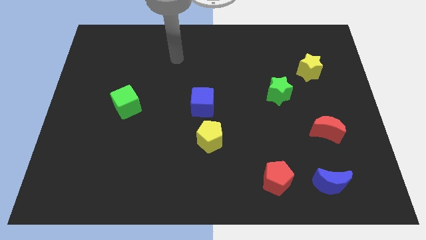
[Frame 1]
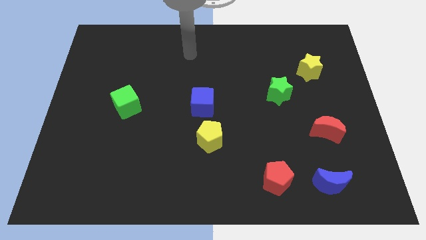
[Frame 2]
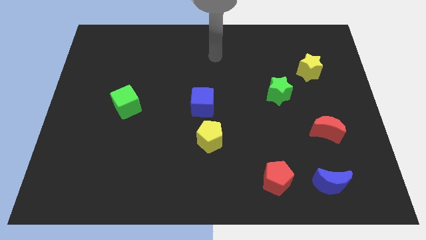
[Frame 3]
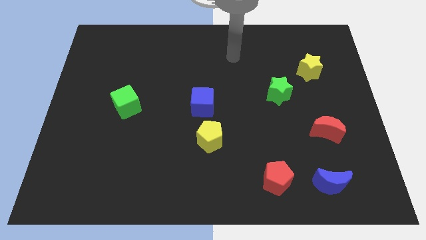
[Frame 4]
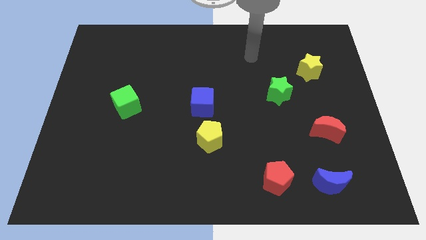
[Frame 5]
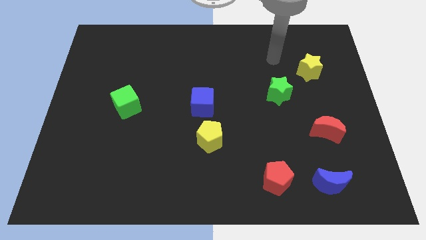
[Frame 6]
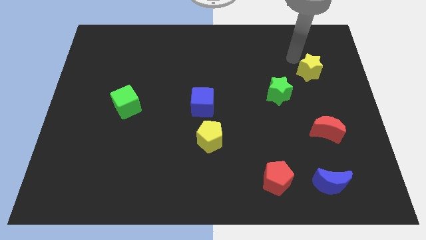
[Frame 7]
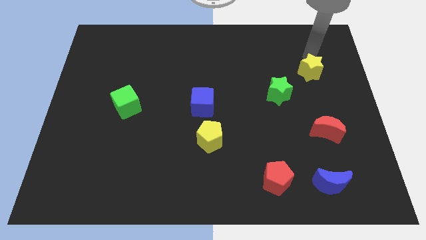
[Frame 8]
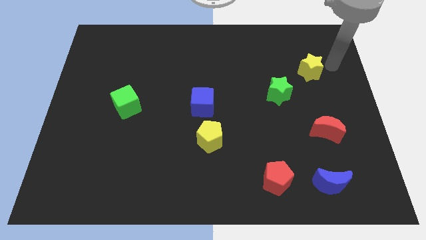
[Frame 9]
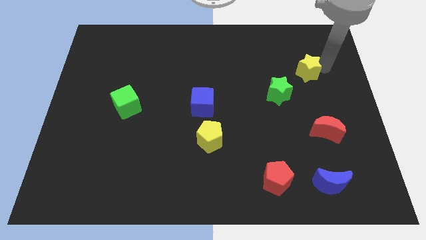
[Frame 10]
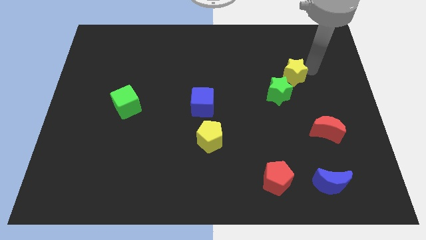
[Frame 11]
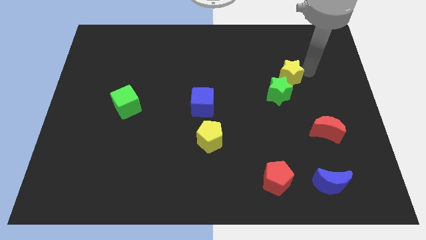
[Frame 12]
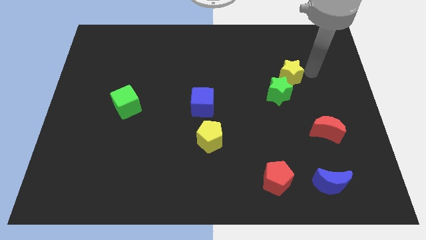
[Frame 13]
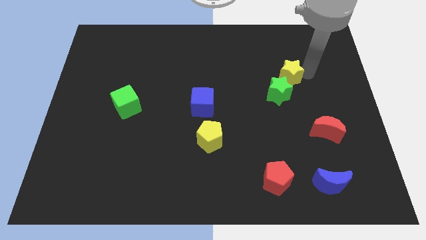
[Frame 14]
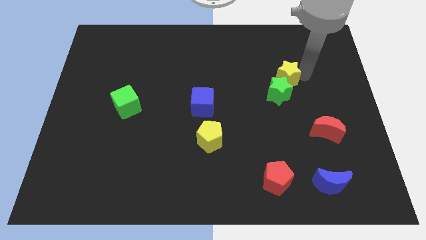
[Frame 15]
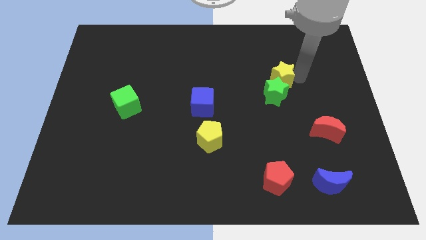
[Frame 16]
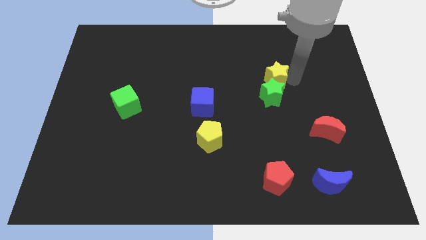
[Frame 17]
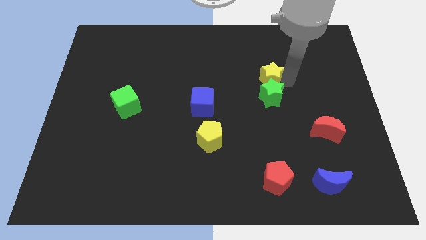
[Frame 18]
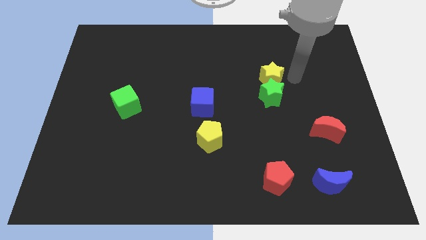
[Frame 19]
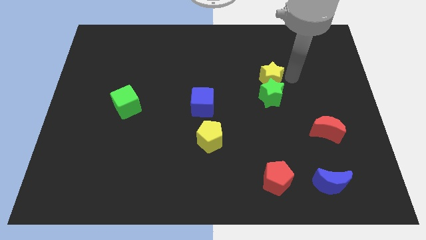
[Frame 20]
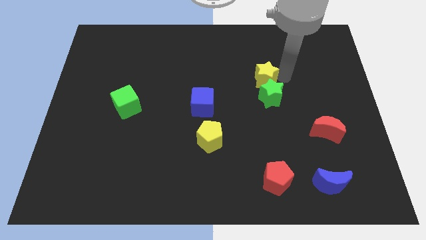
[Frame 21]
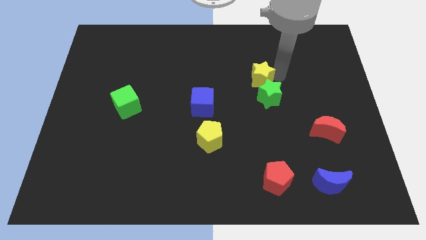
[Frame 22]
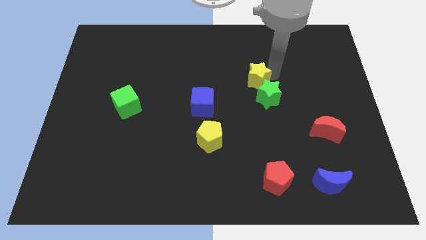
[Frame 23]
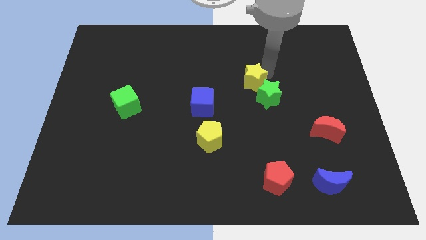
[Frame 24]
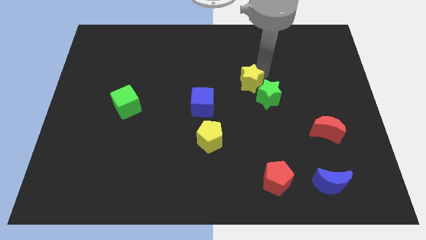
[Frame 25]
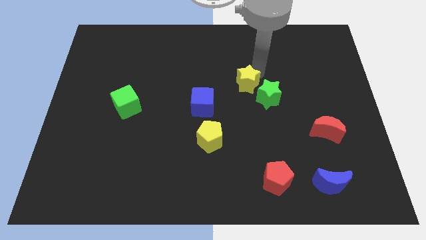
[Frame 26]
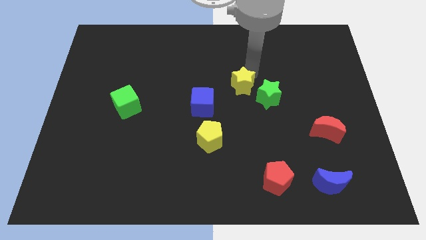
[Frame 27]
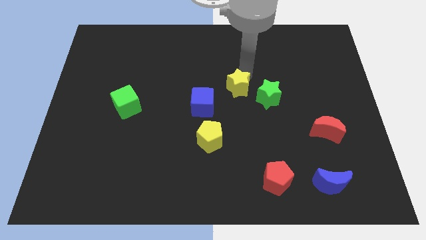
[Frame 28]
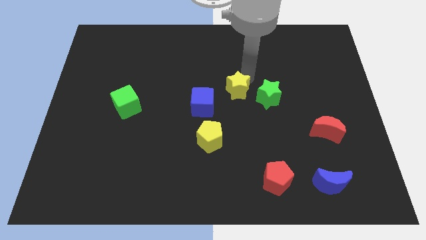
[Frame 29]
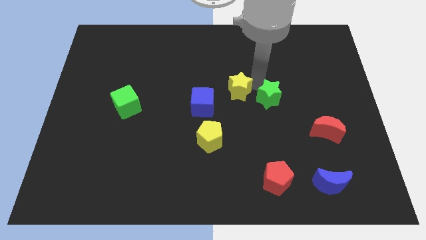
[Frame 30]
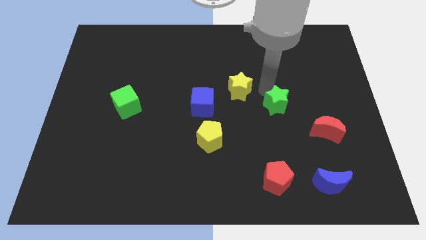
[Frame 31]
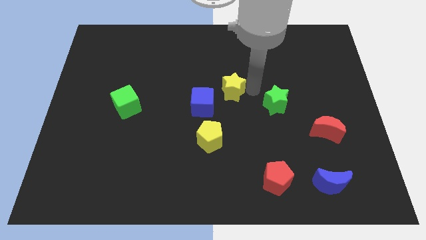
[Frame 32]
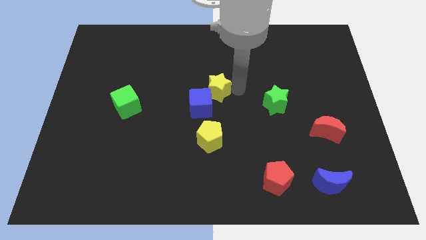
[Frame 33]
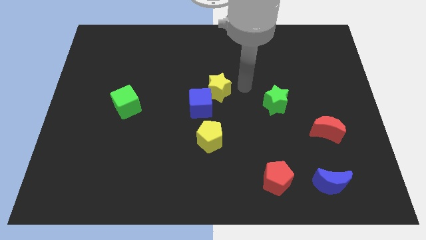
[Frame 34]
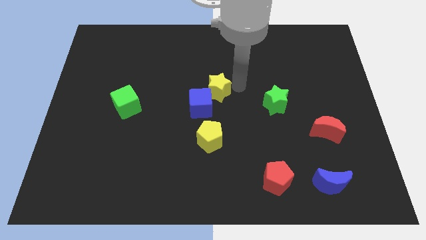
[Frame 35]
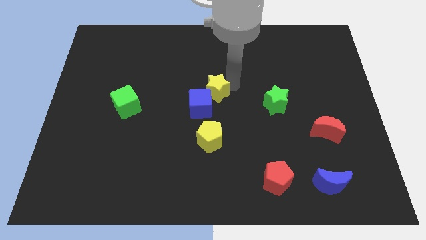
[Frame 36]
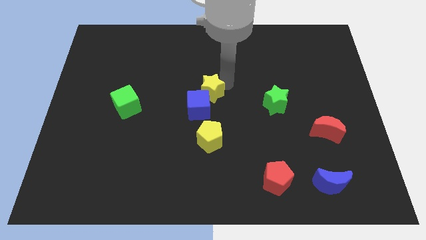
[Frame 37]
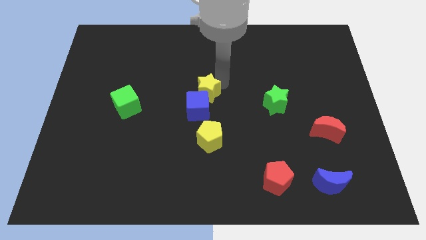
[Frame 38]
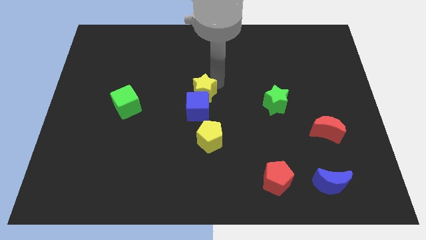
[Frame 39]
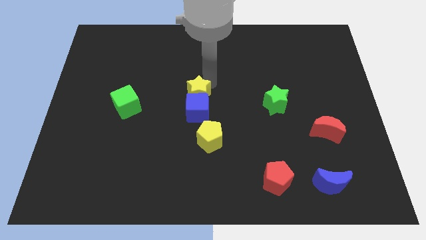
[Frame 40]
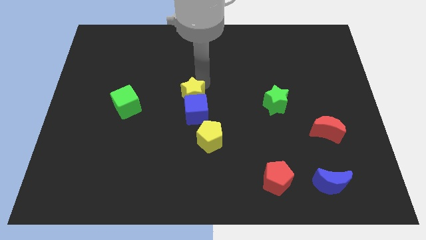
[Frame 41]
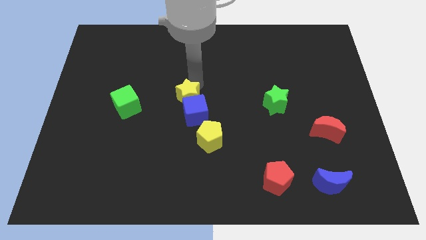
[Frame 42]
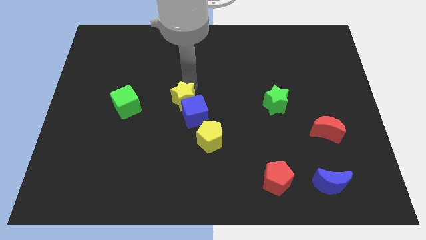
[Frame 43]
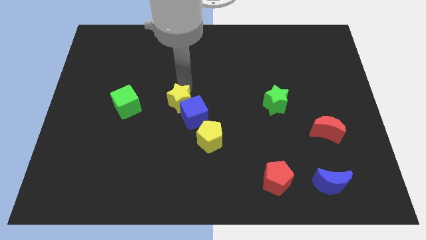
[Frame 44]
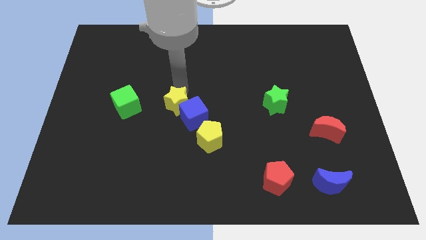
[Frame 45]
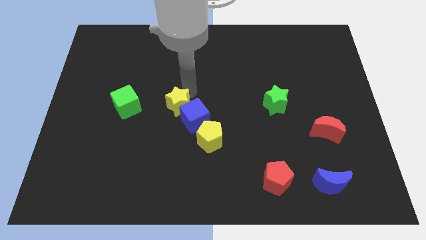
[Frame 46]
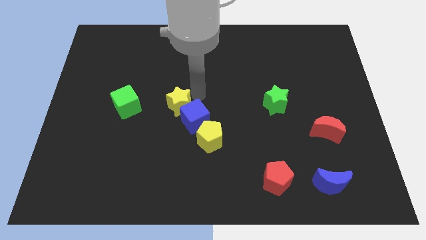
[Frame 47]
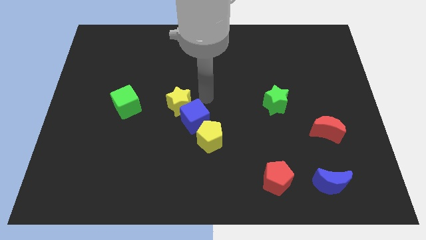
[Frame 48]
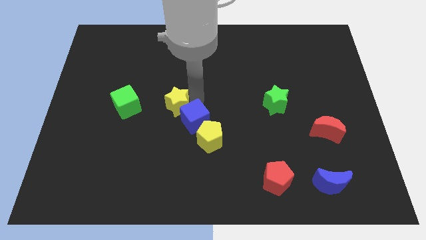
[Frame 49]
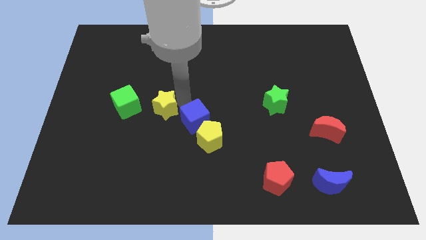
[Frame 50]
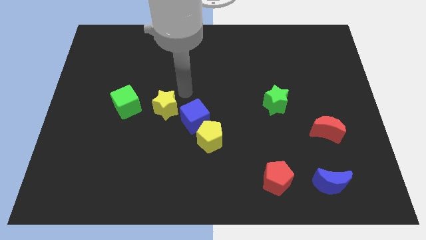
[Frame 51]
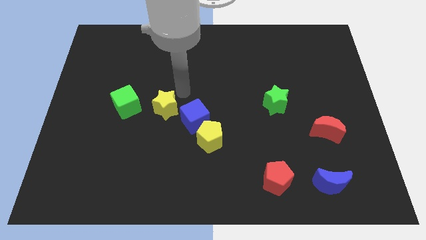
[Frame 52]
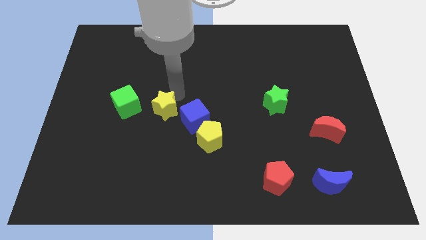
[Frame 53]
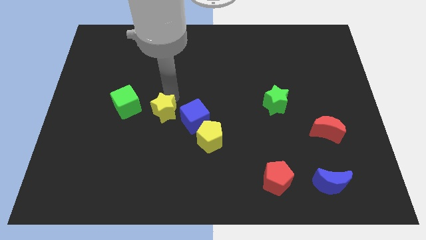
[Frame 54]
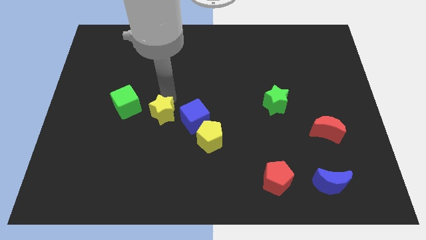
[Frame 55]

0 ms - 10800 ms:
put the yellow star to the bottom right side of the green cube

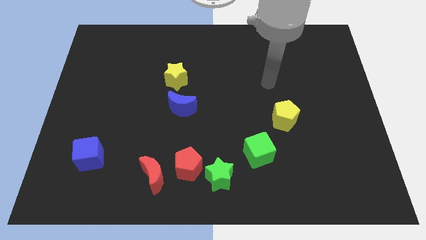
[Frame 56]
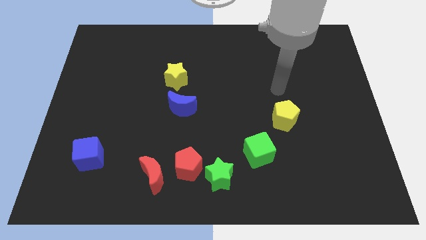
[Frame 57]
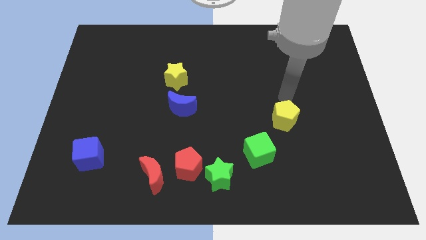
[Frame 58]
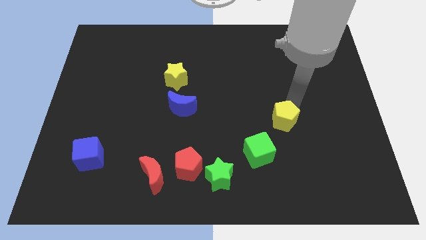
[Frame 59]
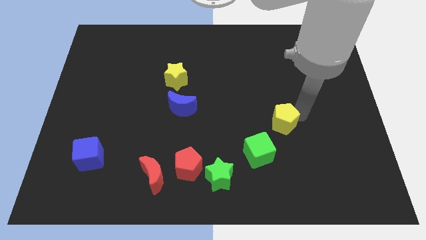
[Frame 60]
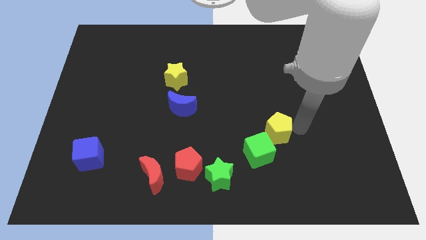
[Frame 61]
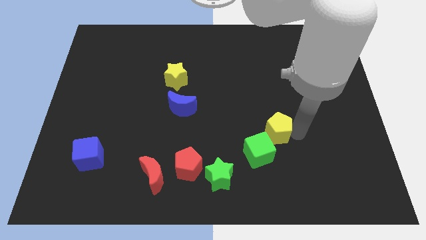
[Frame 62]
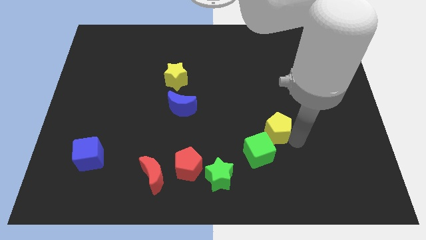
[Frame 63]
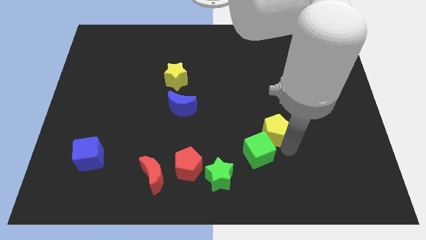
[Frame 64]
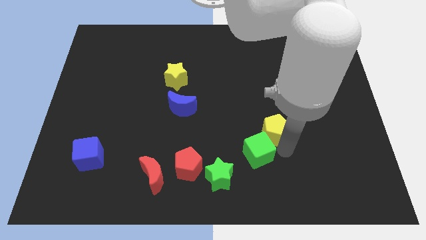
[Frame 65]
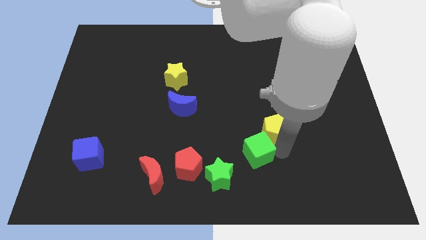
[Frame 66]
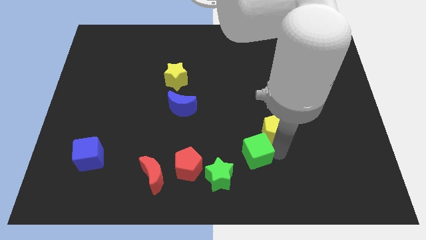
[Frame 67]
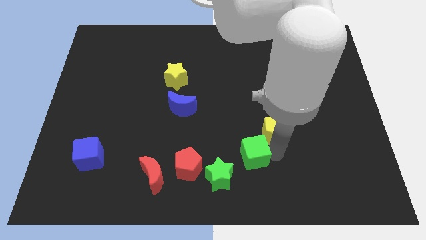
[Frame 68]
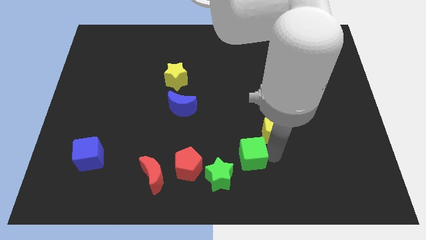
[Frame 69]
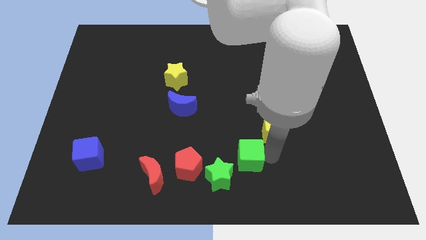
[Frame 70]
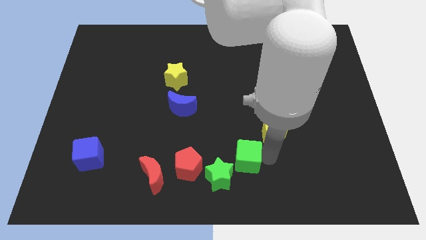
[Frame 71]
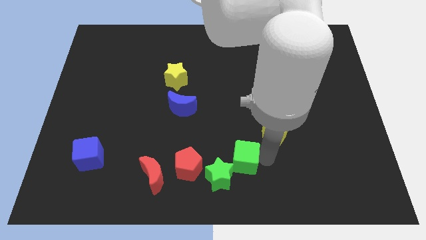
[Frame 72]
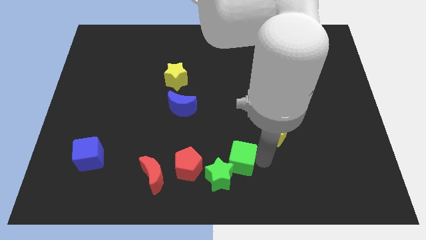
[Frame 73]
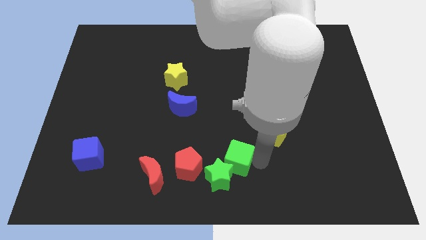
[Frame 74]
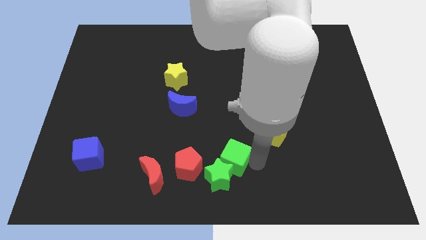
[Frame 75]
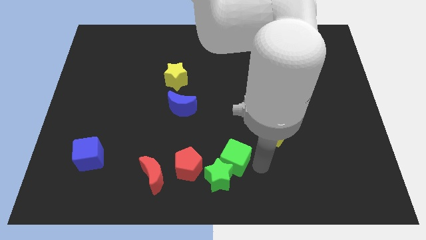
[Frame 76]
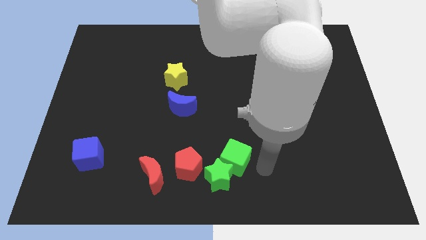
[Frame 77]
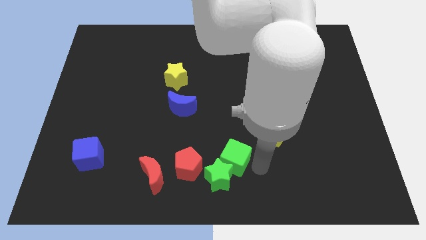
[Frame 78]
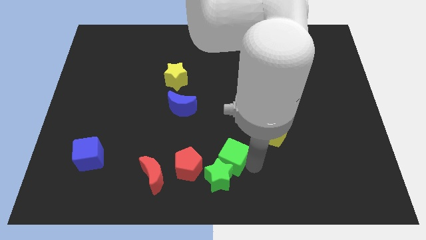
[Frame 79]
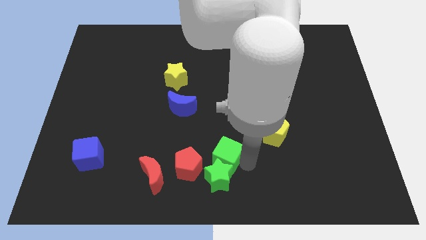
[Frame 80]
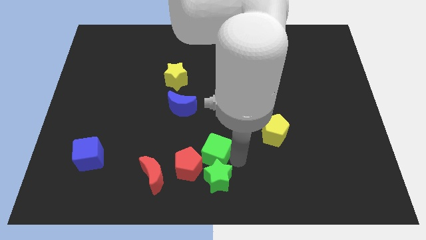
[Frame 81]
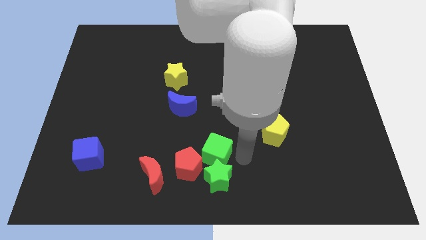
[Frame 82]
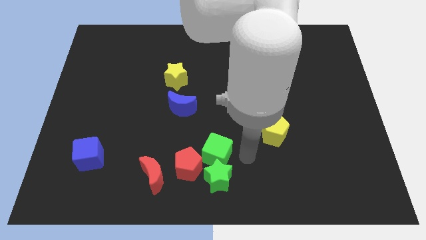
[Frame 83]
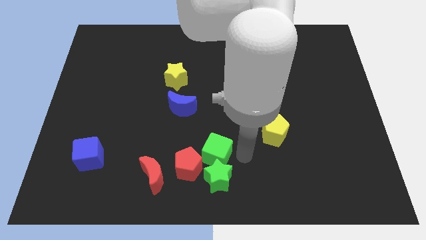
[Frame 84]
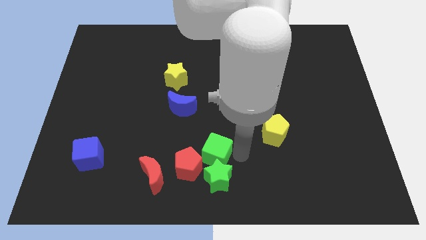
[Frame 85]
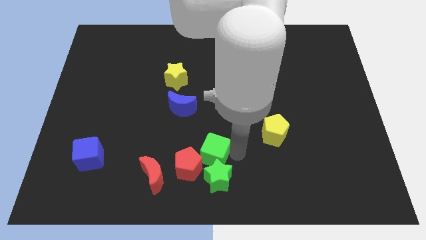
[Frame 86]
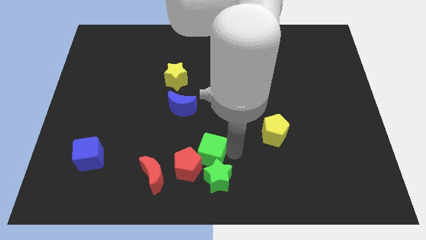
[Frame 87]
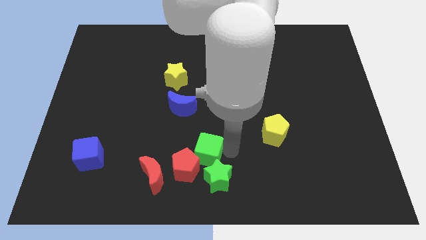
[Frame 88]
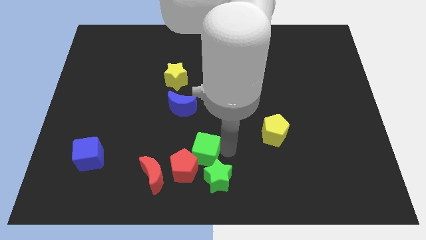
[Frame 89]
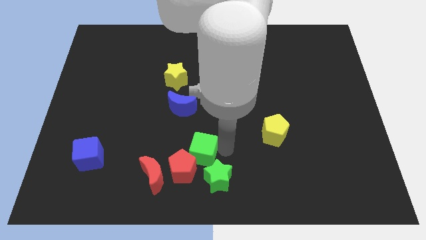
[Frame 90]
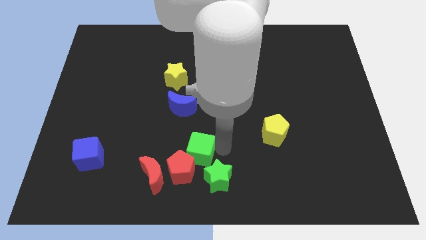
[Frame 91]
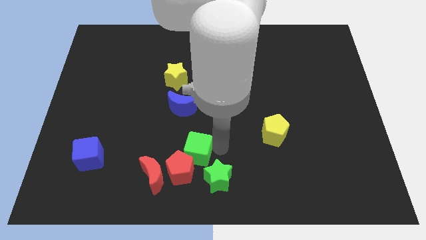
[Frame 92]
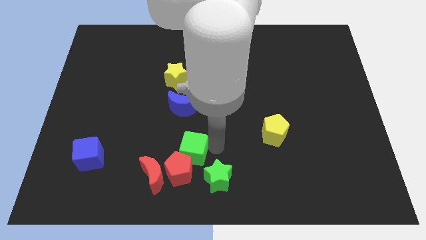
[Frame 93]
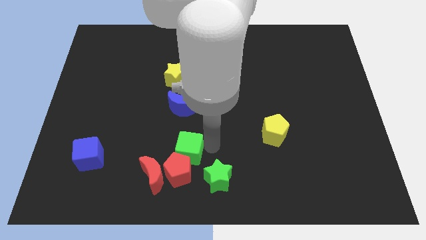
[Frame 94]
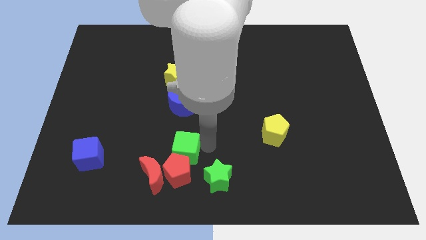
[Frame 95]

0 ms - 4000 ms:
push the green cube to the top left of the red pentagon
